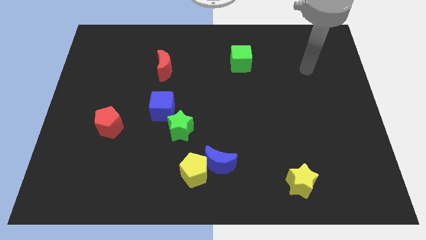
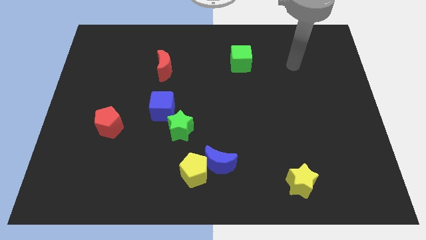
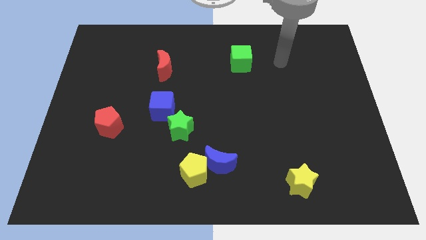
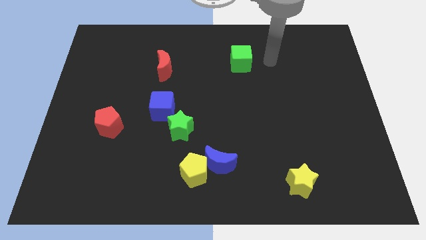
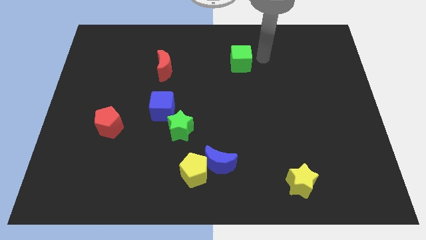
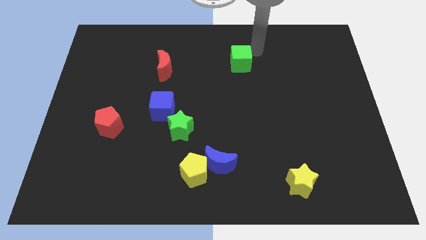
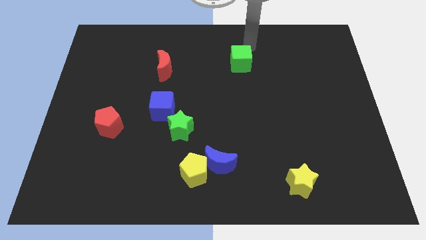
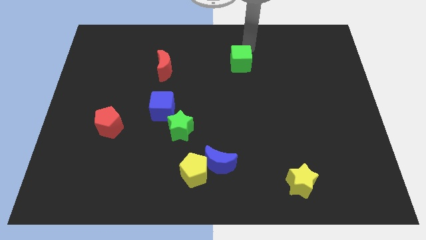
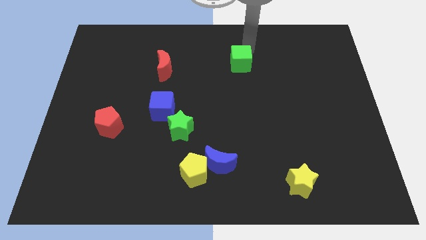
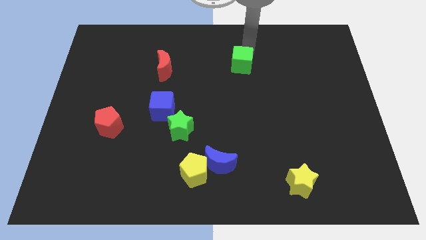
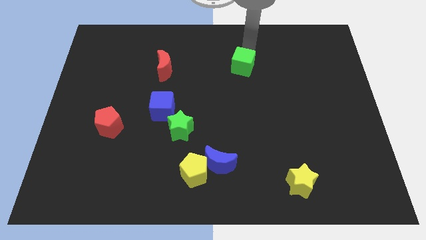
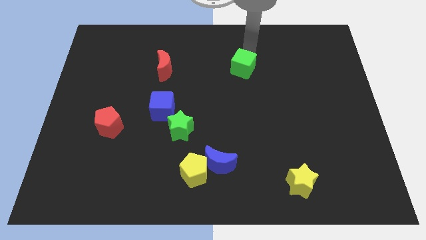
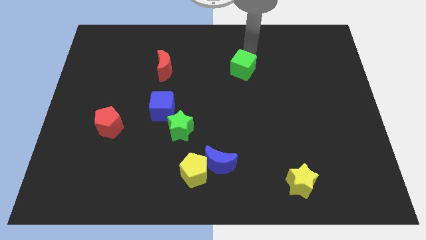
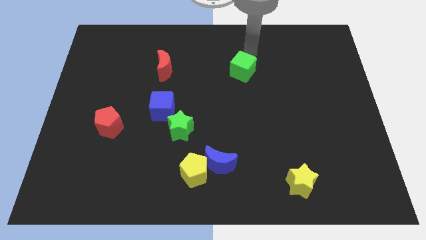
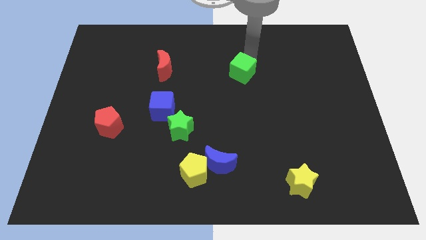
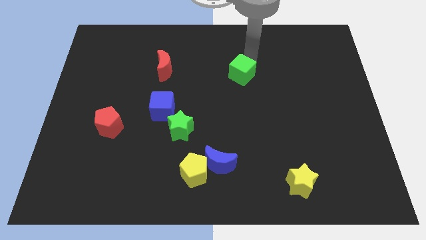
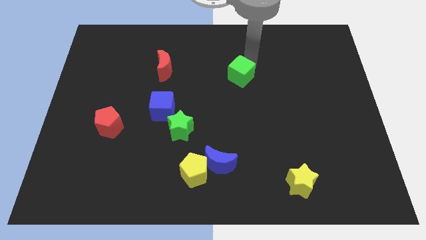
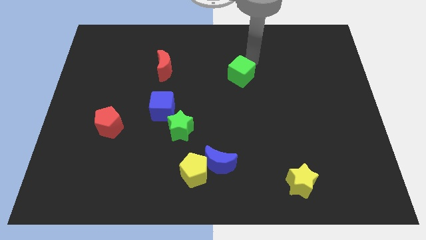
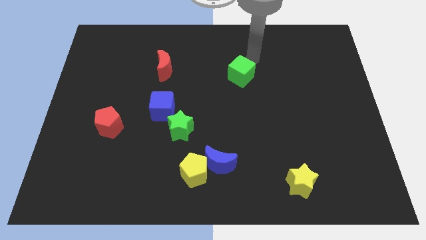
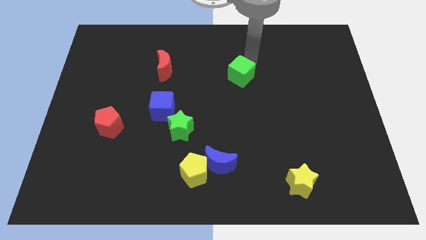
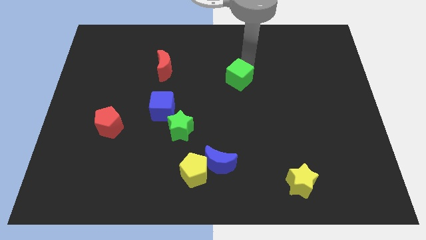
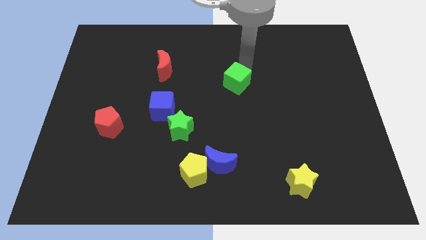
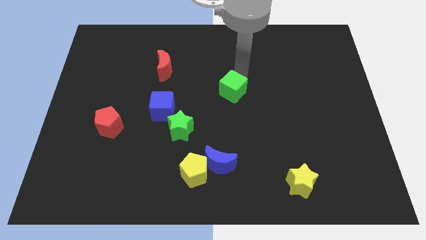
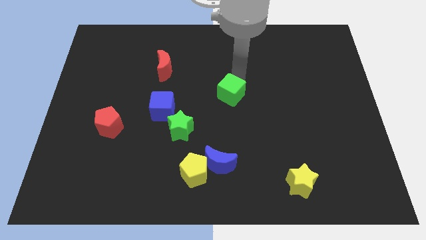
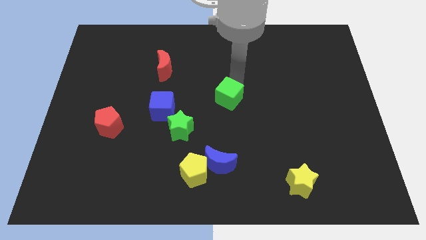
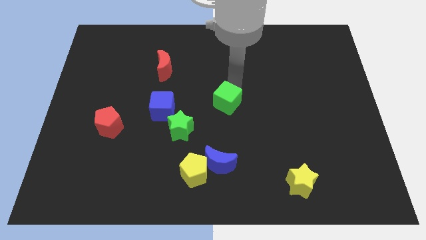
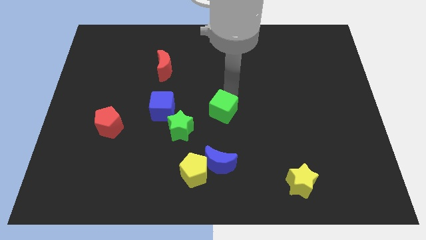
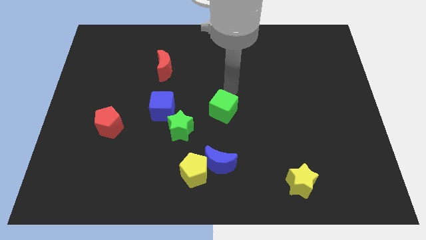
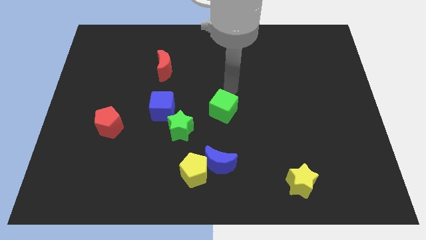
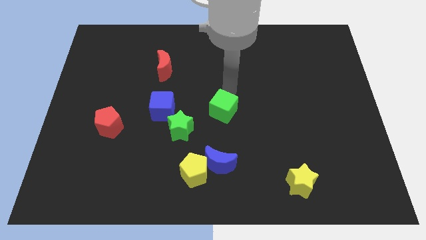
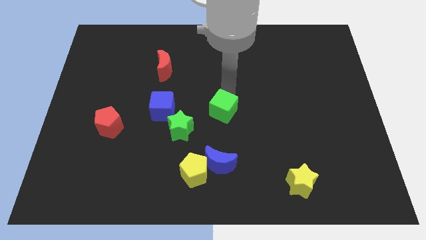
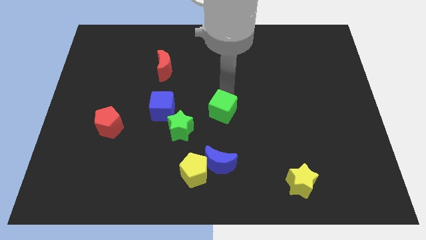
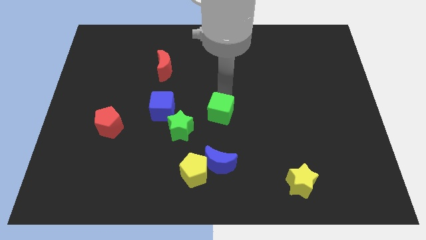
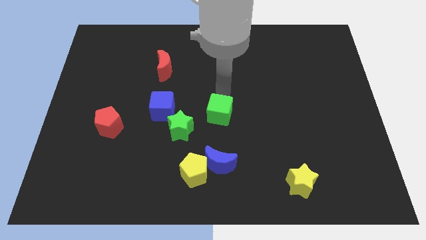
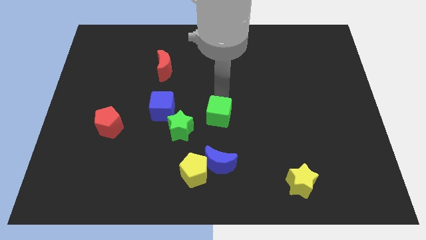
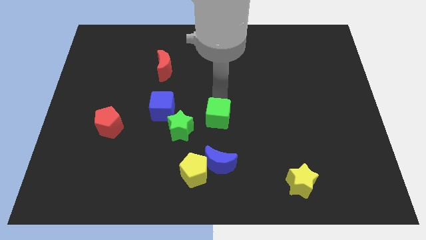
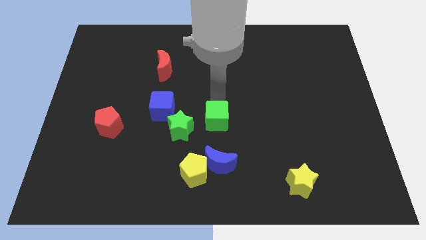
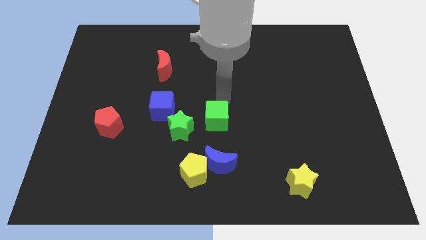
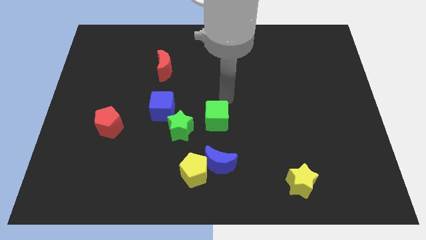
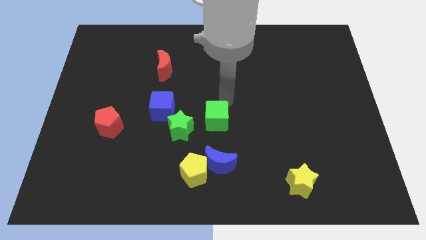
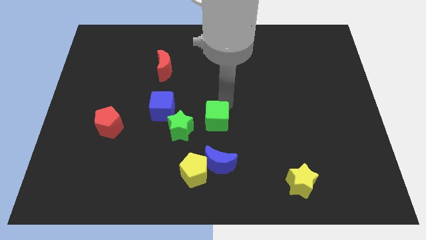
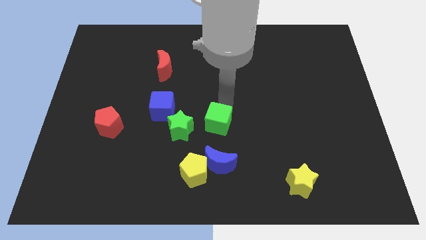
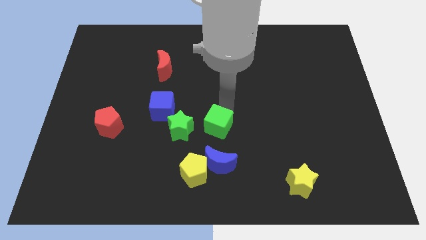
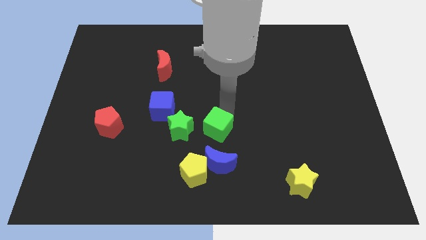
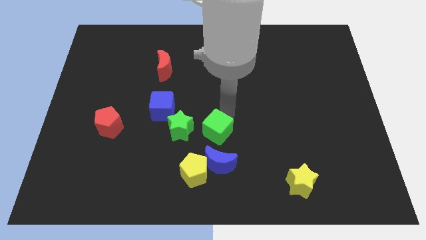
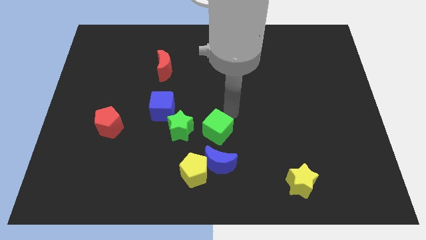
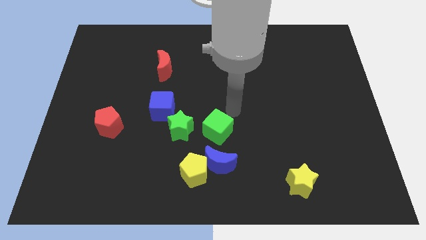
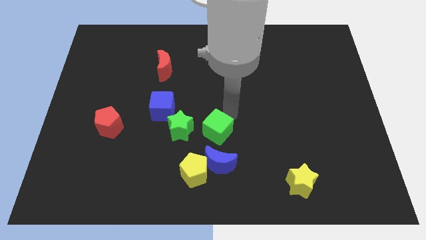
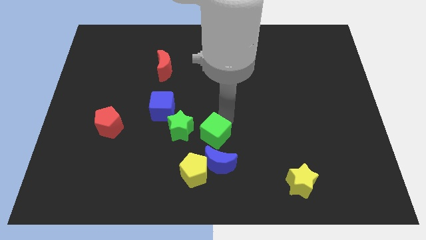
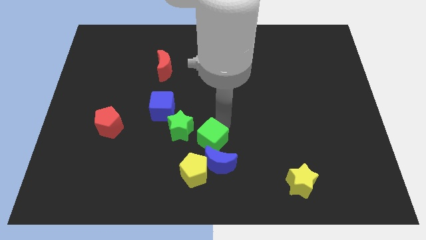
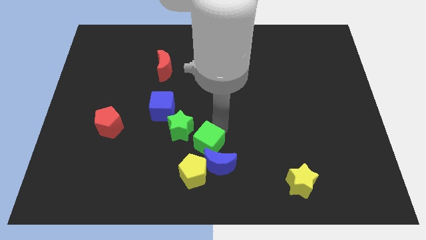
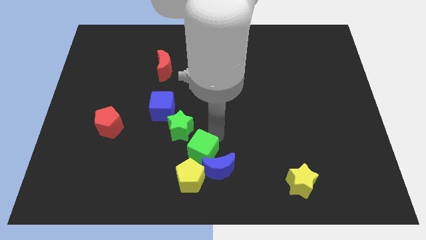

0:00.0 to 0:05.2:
move the green cube just left of the blue moon

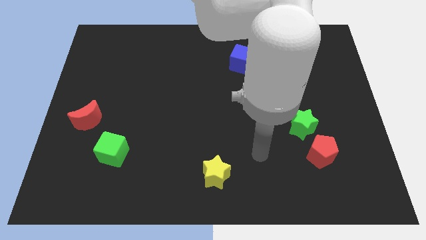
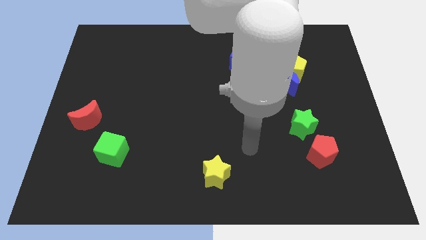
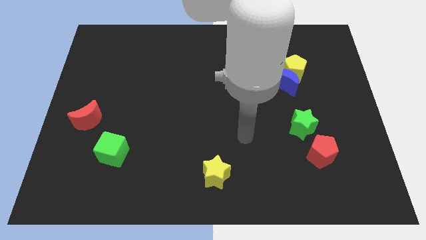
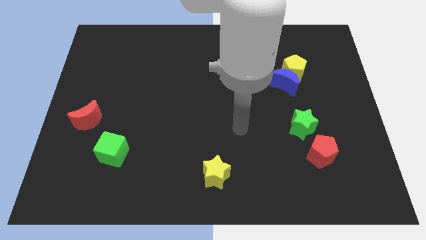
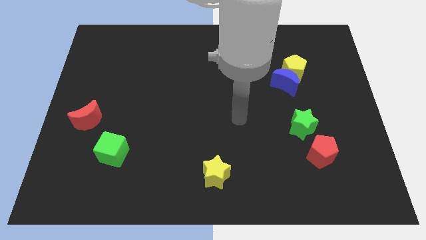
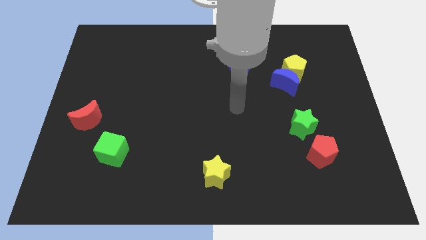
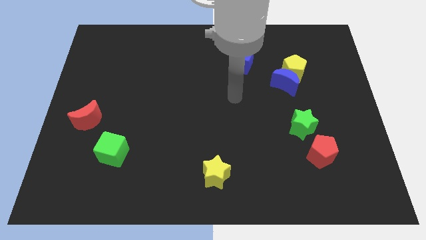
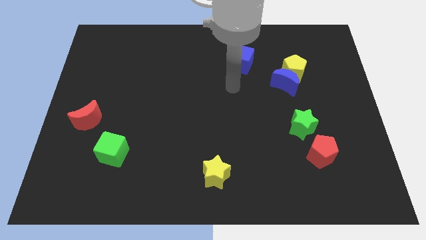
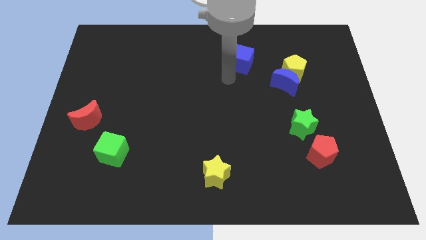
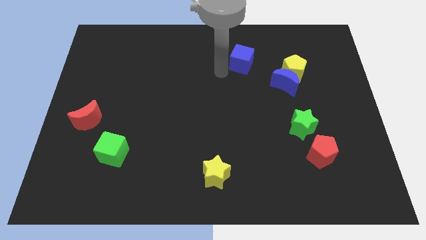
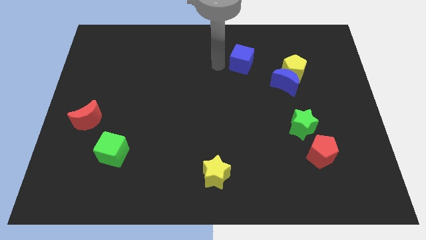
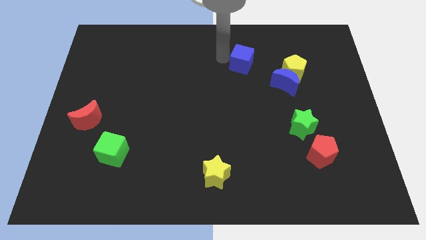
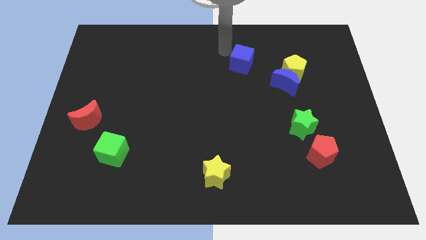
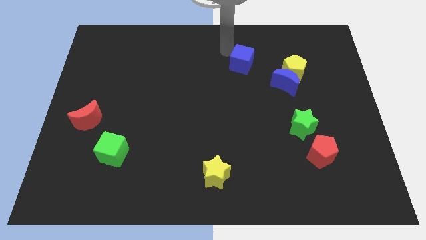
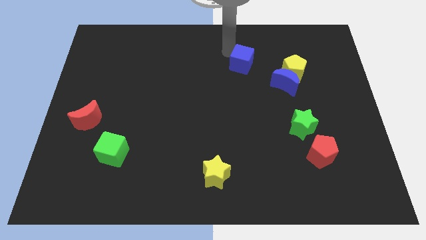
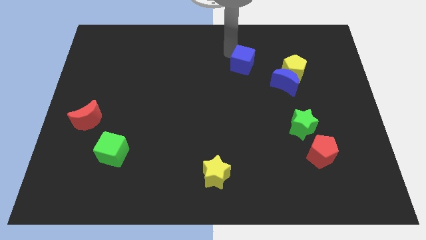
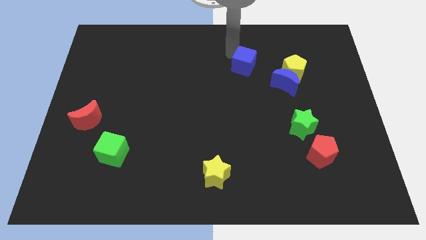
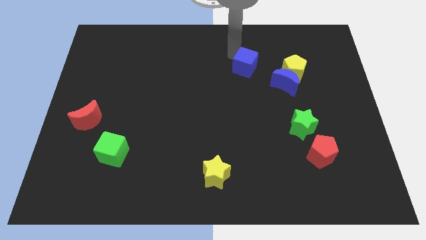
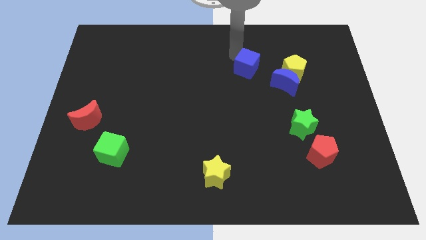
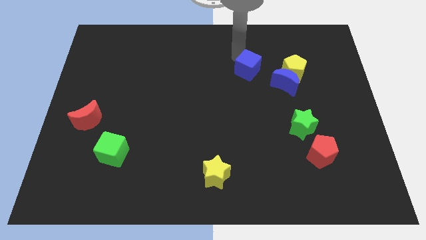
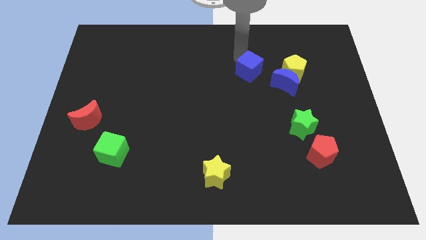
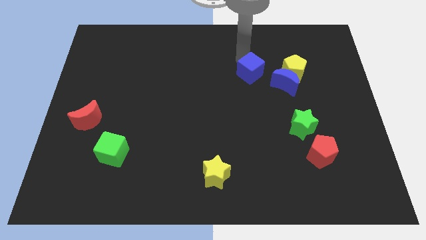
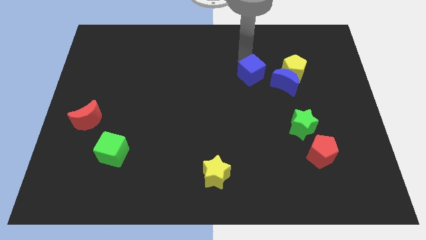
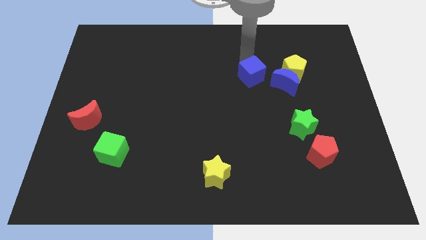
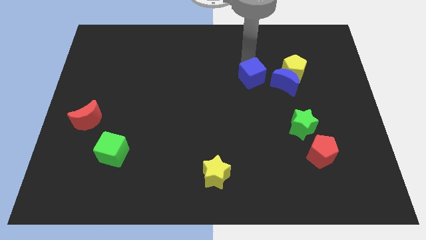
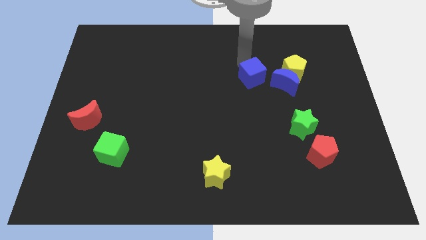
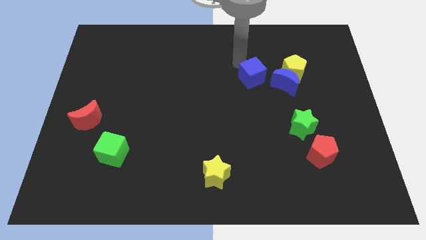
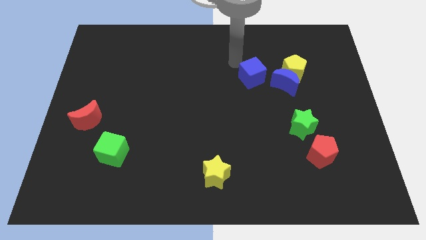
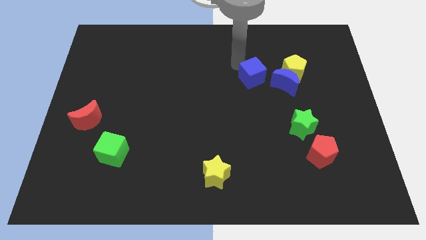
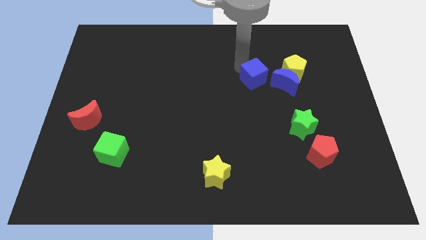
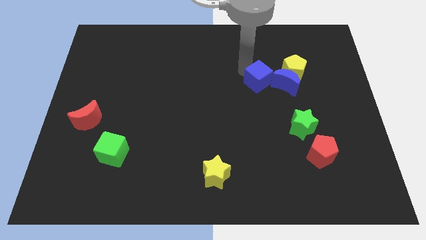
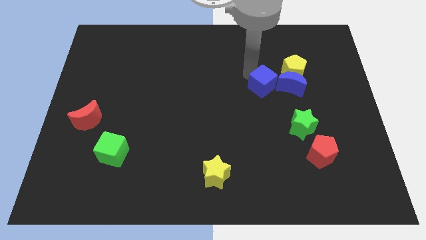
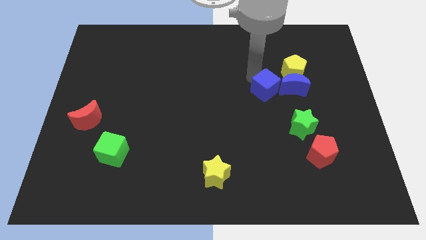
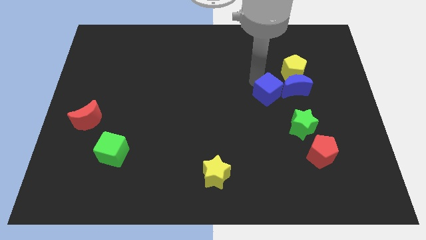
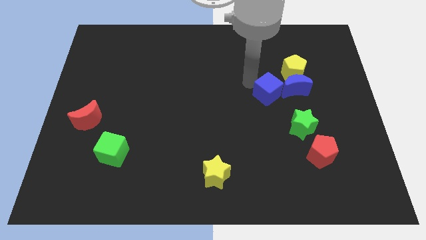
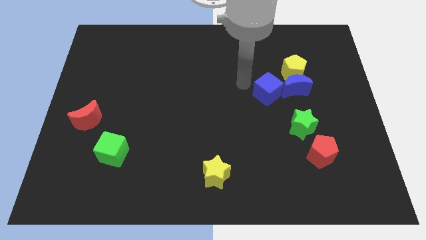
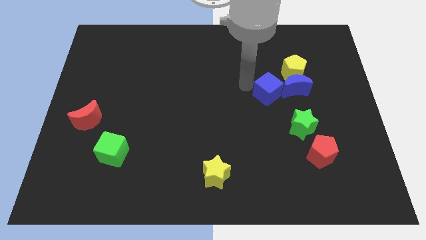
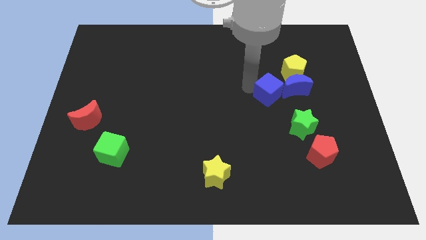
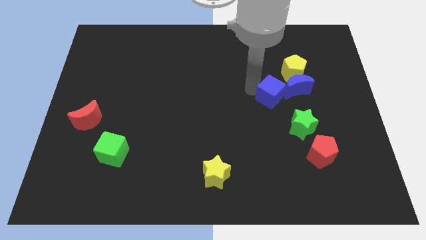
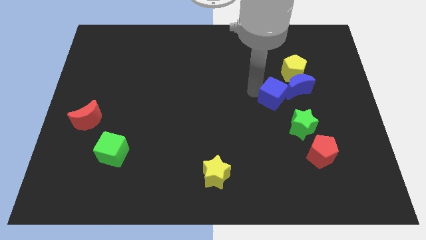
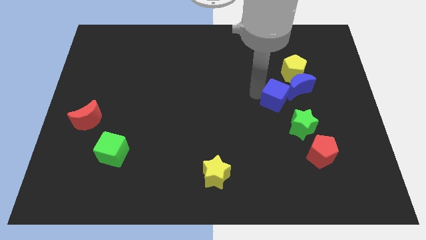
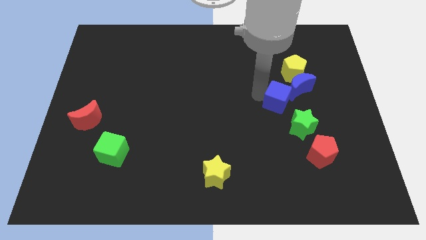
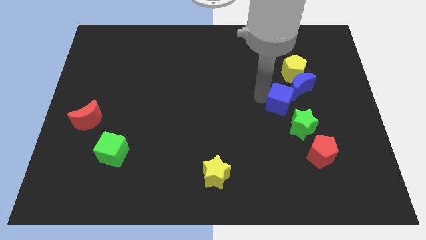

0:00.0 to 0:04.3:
push the blue cube to the bottom of the yellow pentagon
